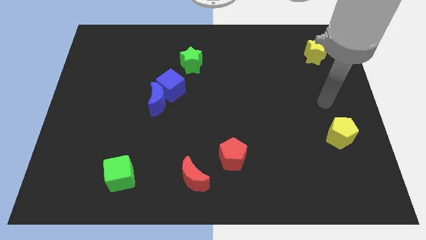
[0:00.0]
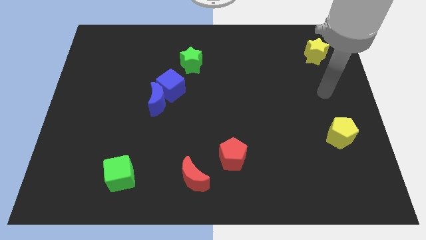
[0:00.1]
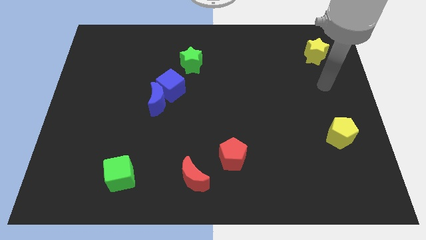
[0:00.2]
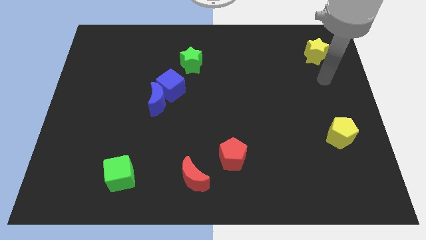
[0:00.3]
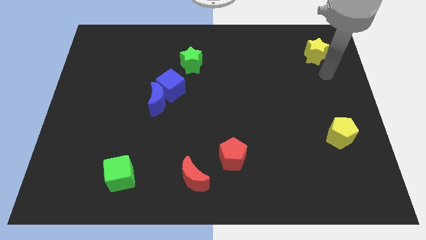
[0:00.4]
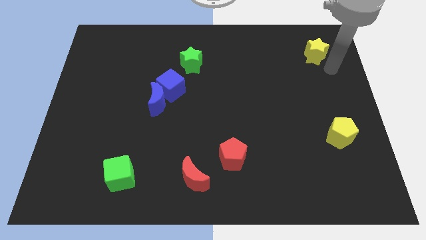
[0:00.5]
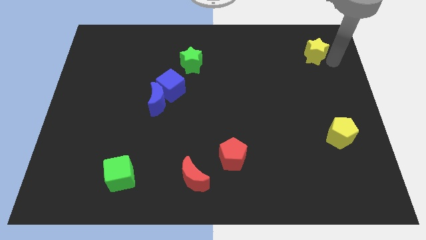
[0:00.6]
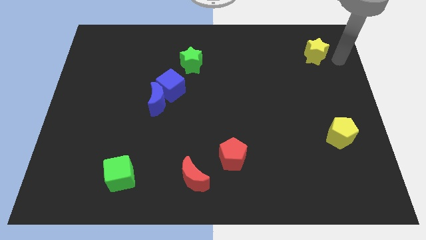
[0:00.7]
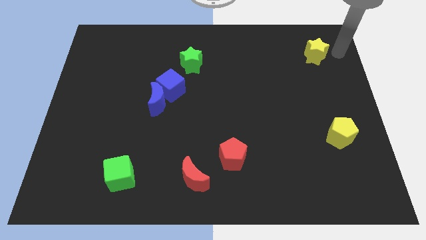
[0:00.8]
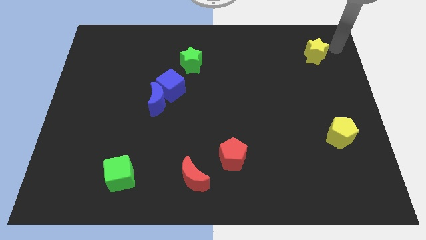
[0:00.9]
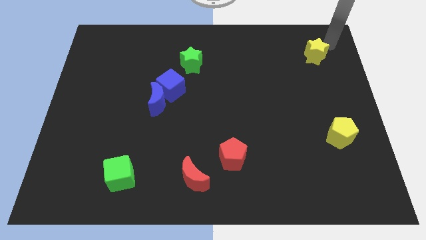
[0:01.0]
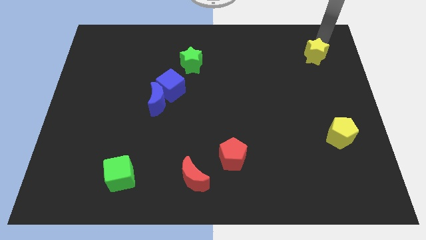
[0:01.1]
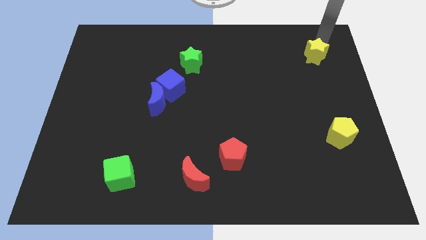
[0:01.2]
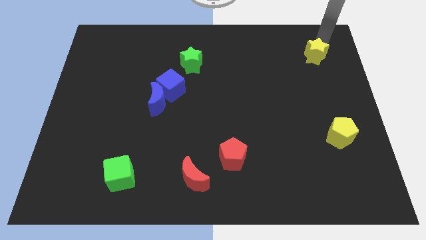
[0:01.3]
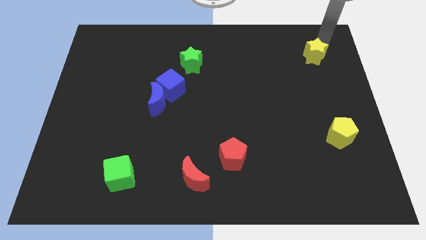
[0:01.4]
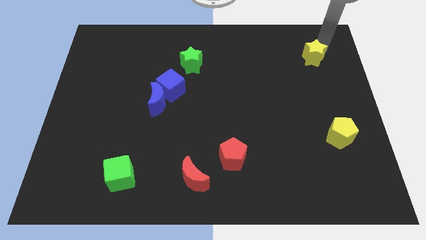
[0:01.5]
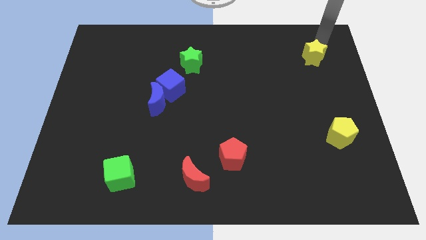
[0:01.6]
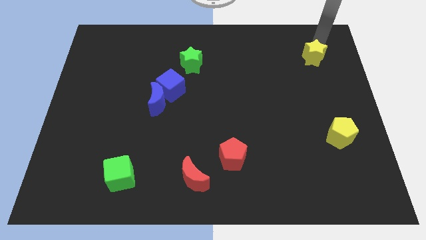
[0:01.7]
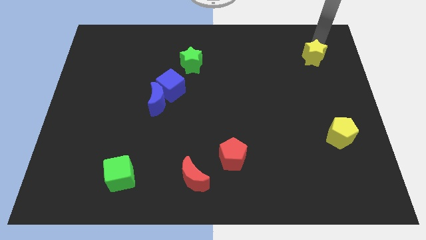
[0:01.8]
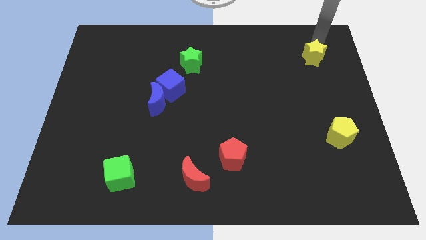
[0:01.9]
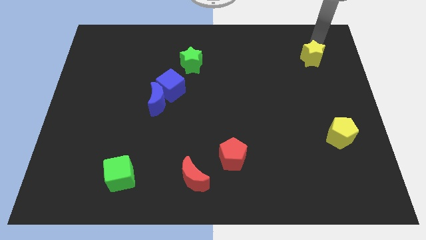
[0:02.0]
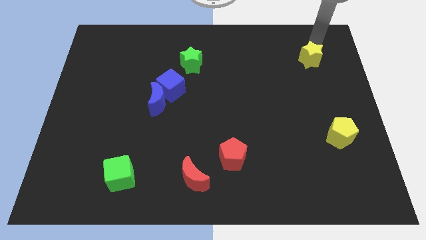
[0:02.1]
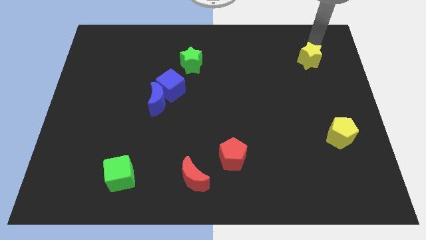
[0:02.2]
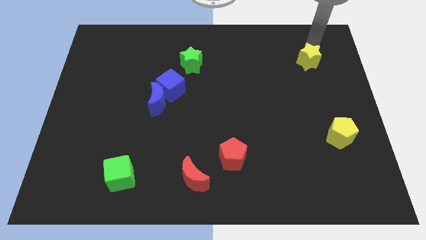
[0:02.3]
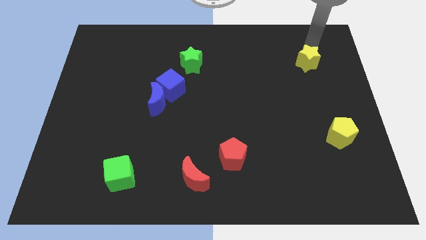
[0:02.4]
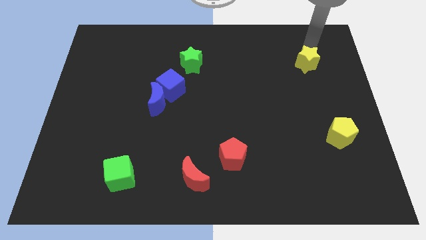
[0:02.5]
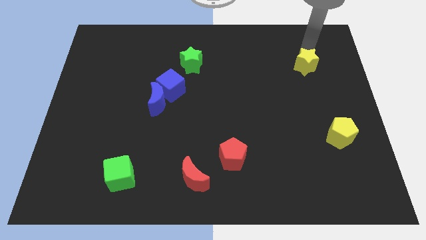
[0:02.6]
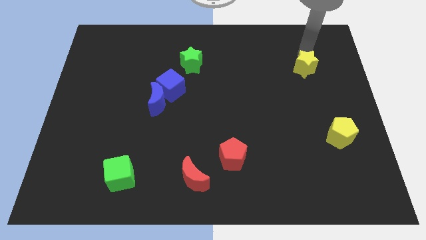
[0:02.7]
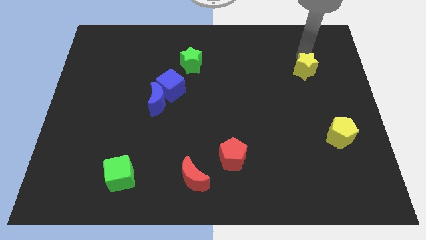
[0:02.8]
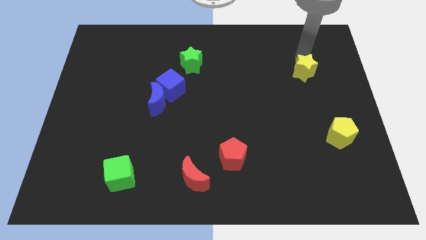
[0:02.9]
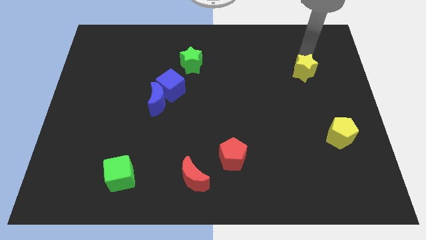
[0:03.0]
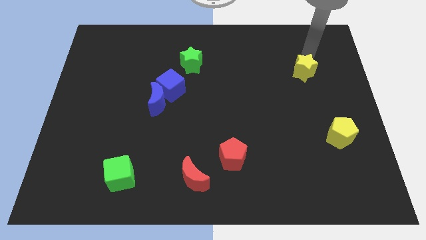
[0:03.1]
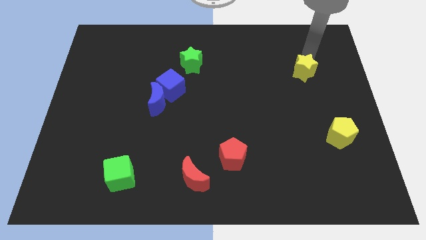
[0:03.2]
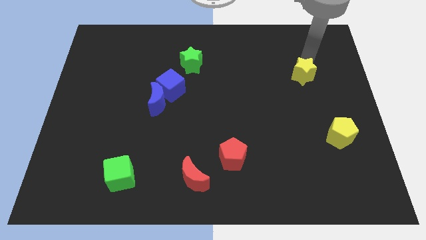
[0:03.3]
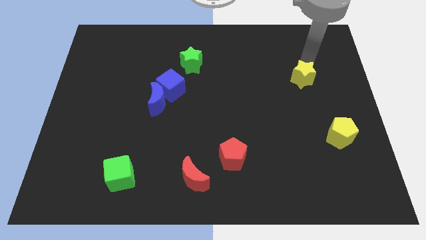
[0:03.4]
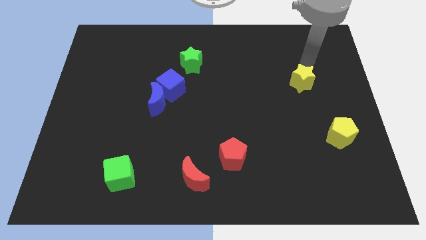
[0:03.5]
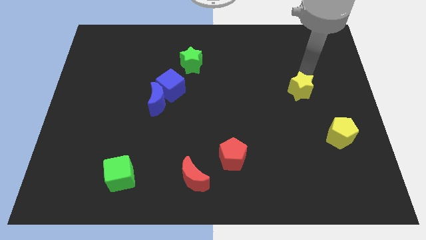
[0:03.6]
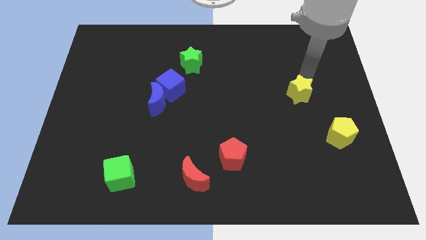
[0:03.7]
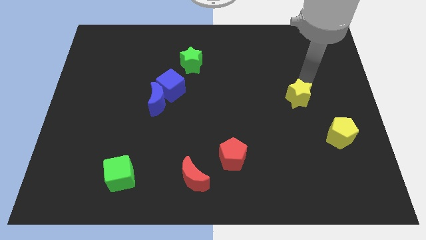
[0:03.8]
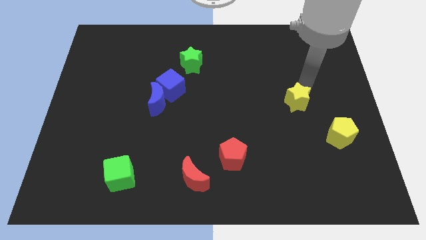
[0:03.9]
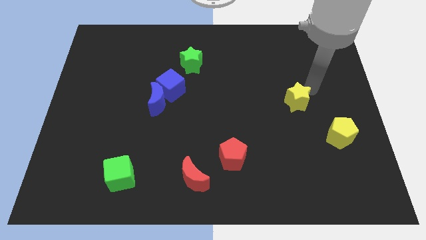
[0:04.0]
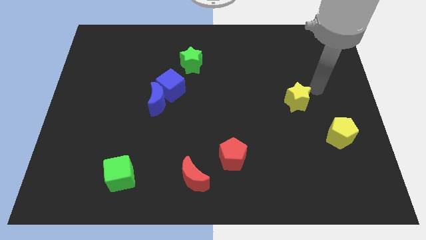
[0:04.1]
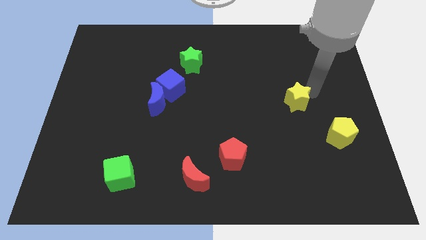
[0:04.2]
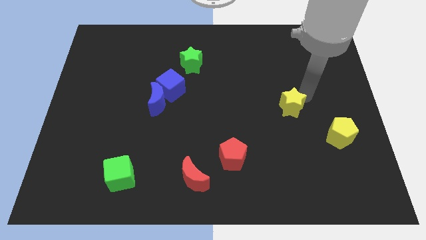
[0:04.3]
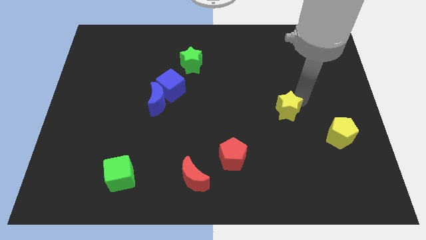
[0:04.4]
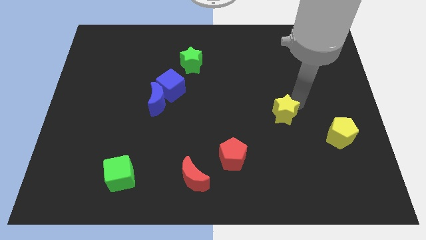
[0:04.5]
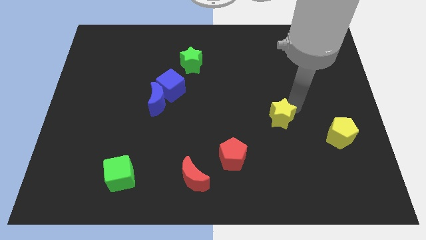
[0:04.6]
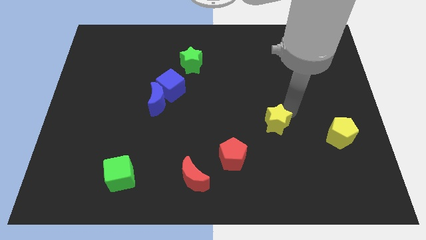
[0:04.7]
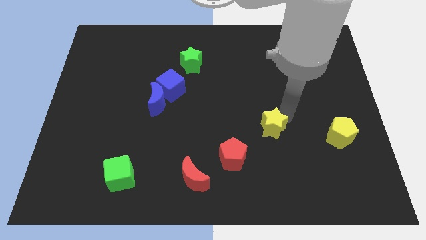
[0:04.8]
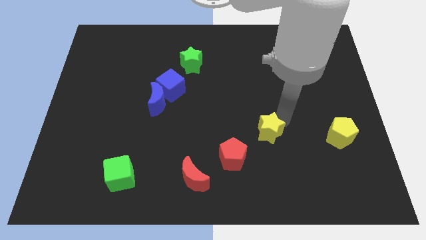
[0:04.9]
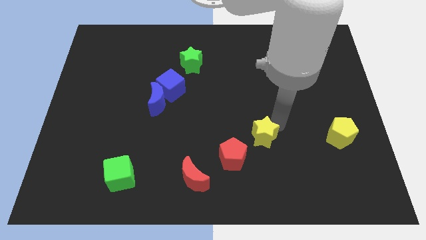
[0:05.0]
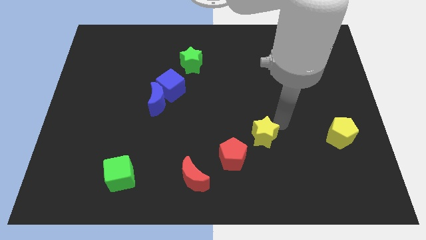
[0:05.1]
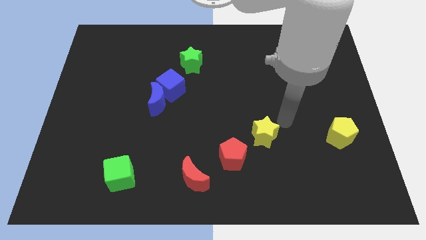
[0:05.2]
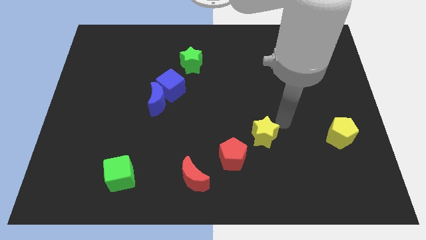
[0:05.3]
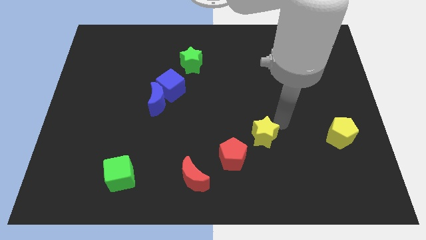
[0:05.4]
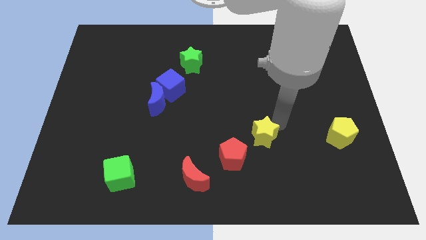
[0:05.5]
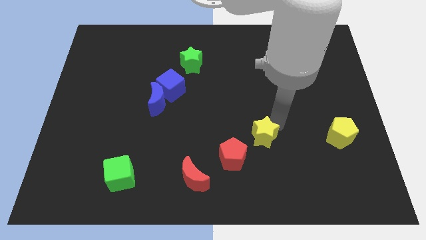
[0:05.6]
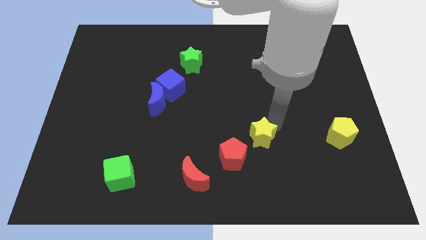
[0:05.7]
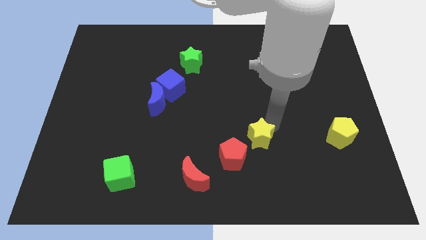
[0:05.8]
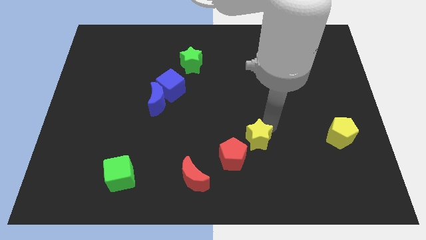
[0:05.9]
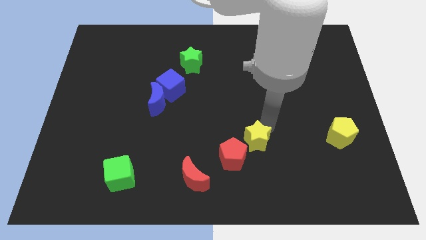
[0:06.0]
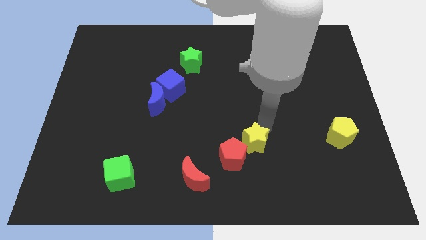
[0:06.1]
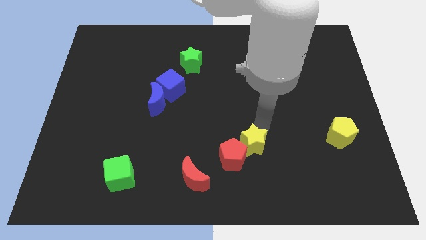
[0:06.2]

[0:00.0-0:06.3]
put the yellow star close to the red pentagon

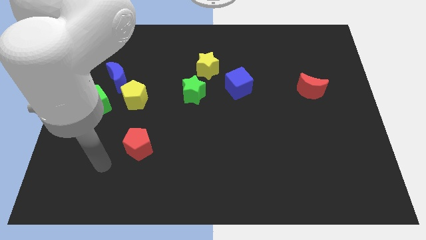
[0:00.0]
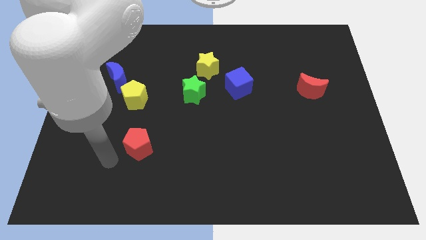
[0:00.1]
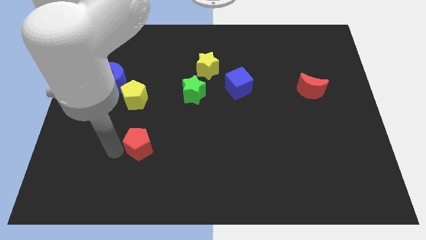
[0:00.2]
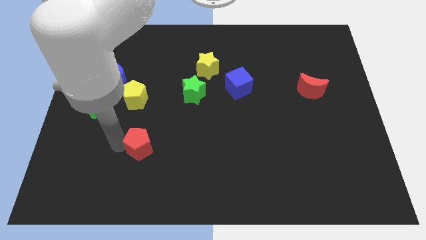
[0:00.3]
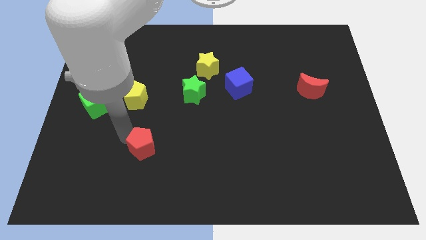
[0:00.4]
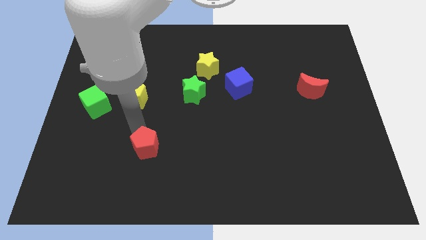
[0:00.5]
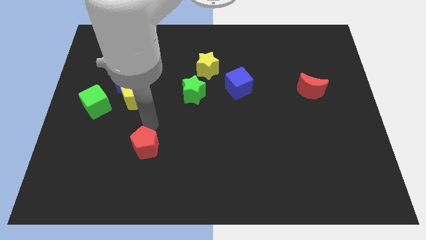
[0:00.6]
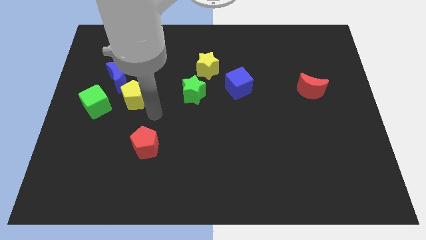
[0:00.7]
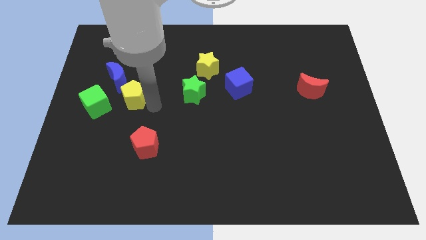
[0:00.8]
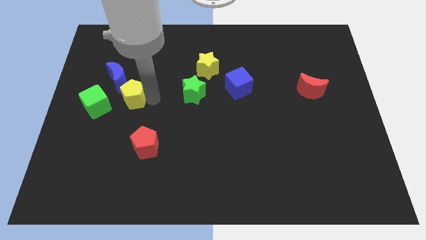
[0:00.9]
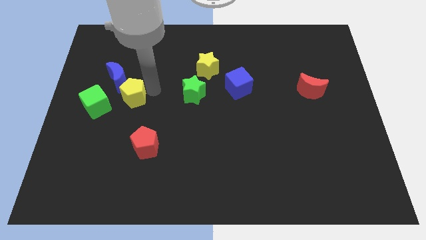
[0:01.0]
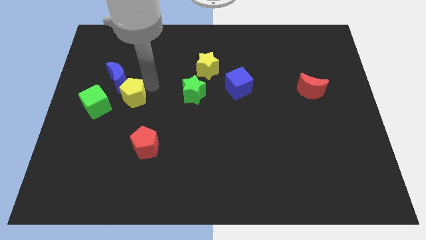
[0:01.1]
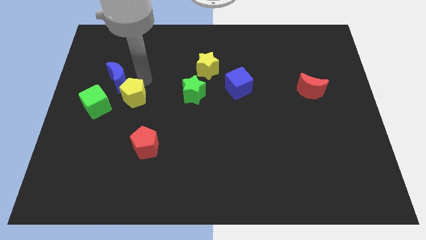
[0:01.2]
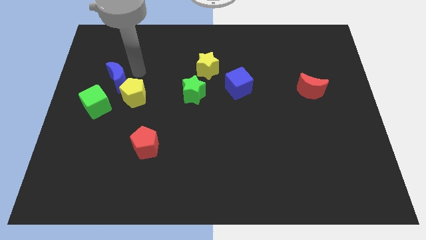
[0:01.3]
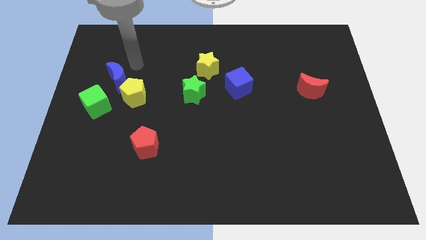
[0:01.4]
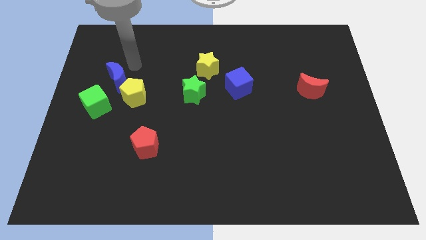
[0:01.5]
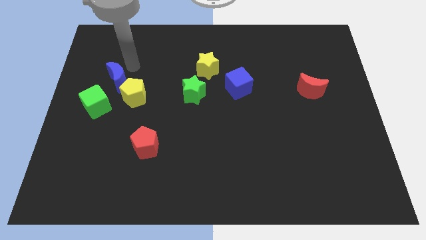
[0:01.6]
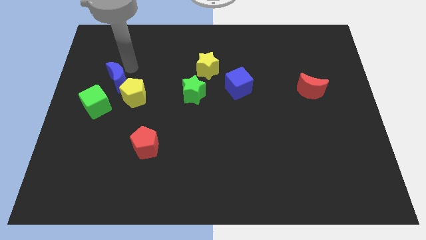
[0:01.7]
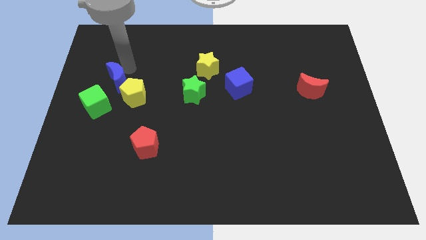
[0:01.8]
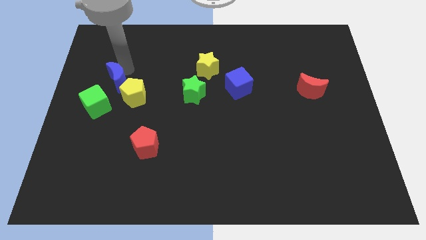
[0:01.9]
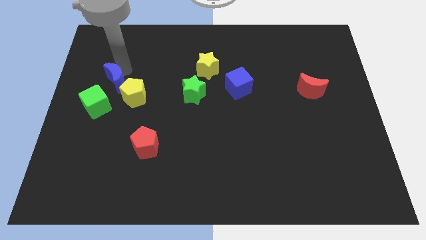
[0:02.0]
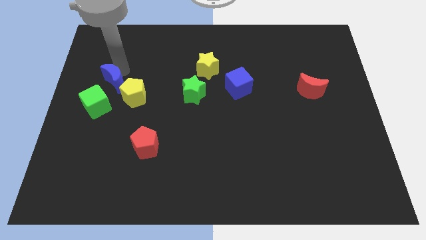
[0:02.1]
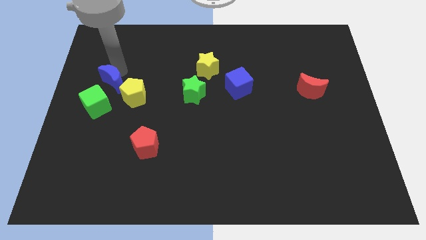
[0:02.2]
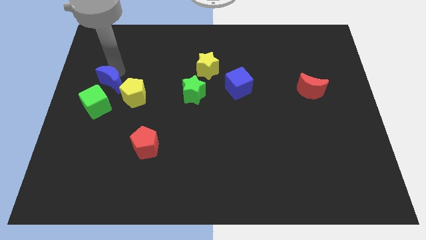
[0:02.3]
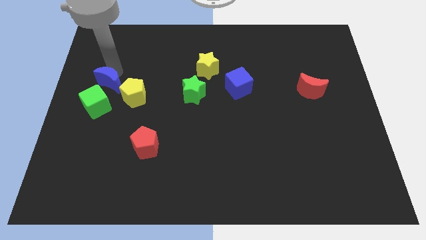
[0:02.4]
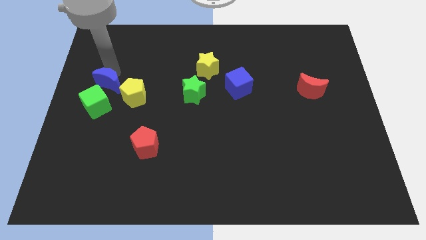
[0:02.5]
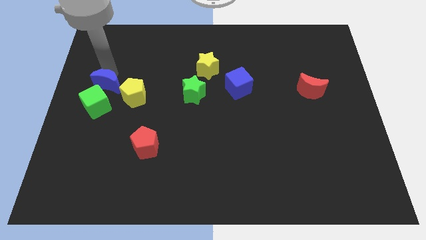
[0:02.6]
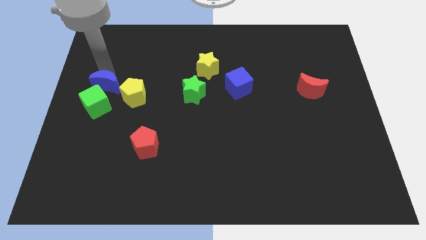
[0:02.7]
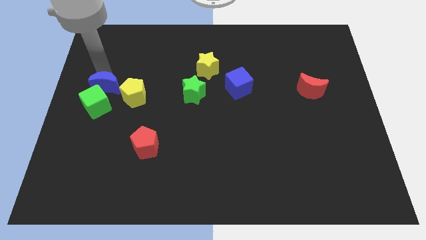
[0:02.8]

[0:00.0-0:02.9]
move the blue moon next to the green cube
